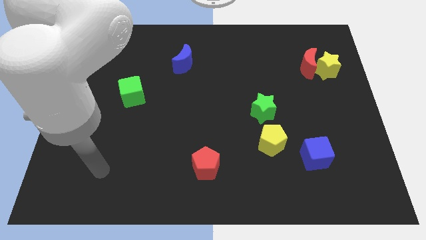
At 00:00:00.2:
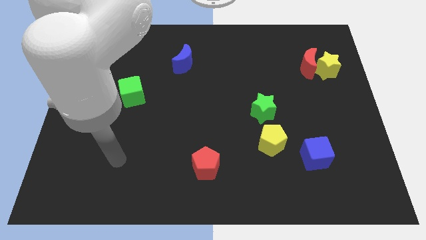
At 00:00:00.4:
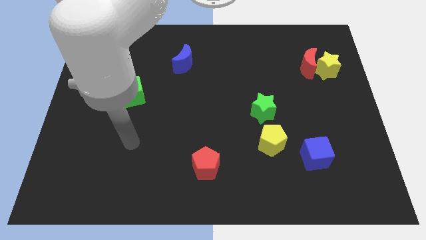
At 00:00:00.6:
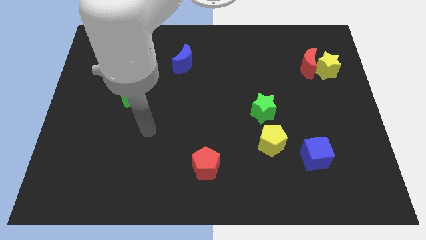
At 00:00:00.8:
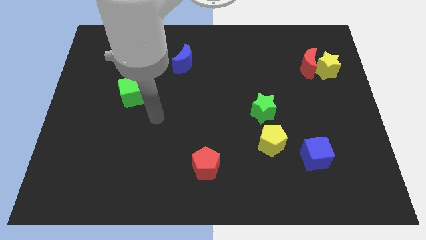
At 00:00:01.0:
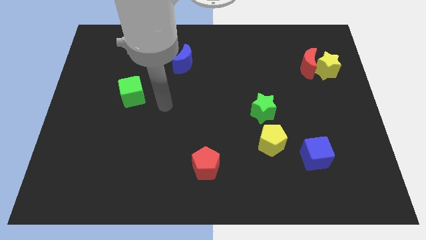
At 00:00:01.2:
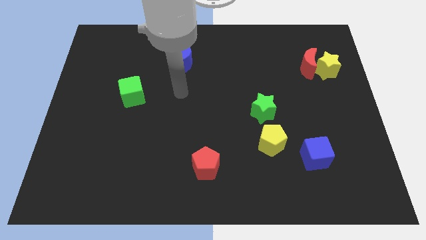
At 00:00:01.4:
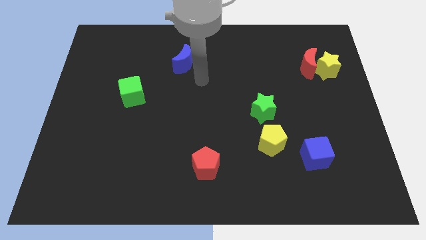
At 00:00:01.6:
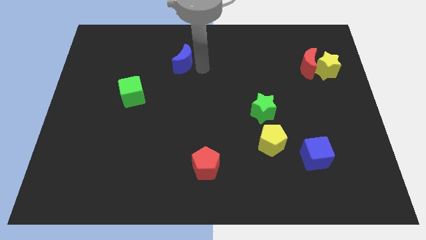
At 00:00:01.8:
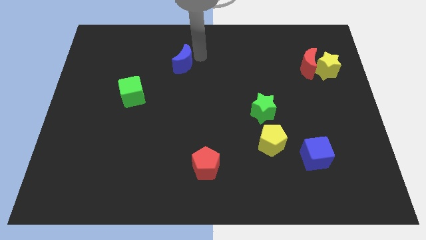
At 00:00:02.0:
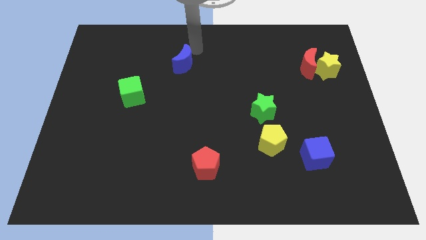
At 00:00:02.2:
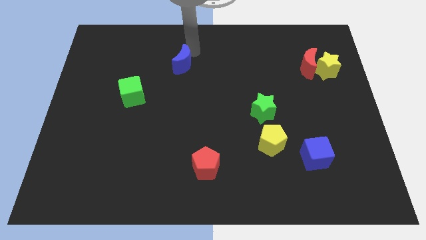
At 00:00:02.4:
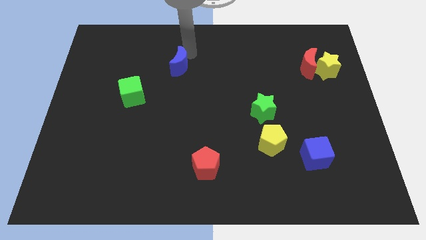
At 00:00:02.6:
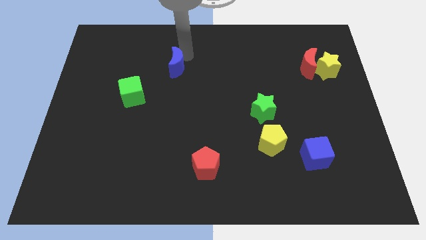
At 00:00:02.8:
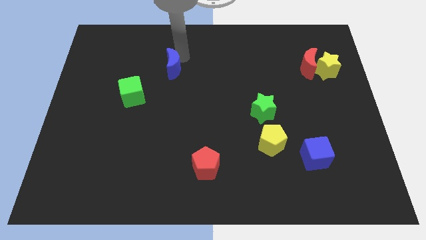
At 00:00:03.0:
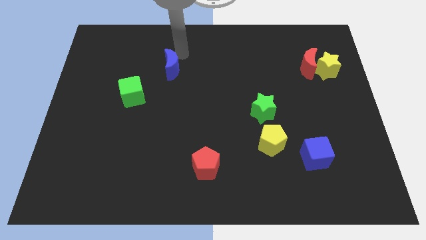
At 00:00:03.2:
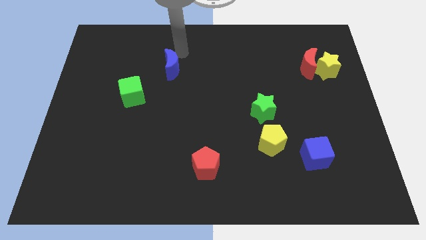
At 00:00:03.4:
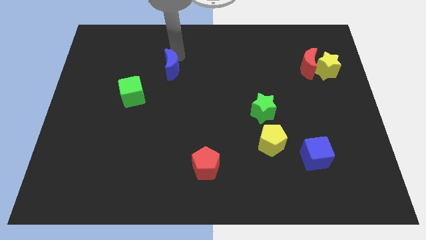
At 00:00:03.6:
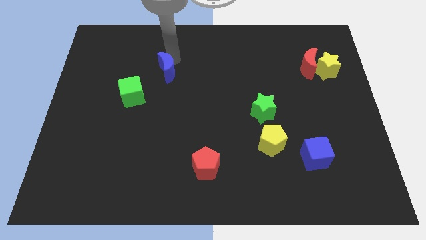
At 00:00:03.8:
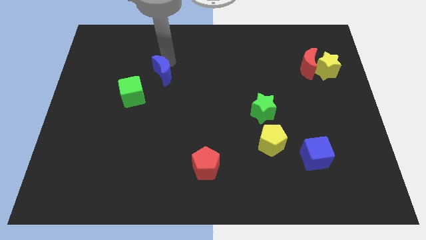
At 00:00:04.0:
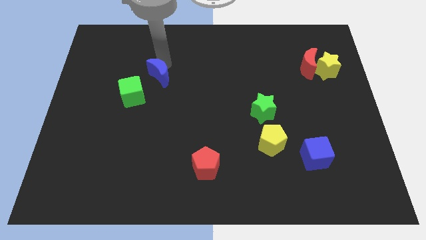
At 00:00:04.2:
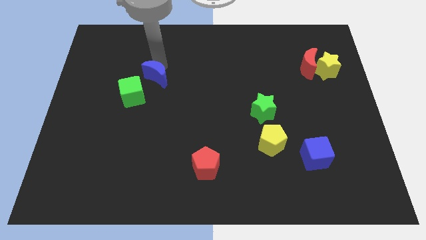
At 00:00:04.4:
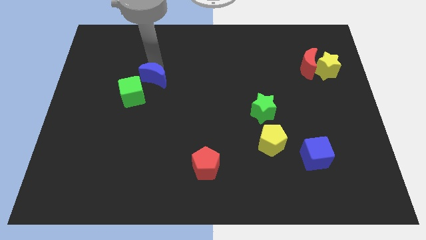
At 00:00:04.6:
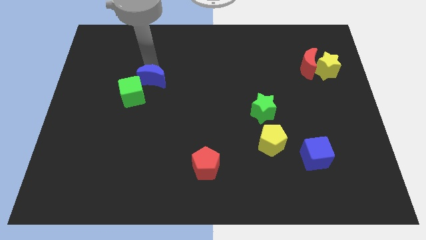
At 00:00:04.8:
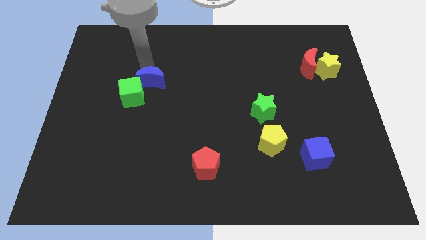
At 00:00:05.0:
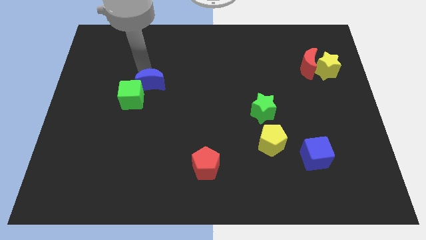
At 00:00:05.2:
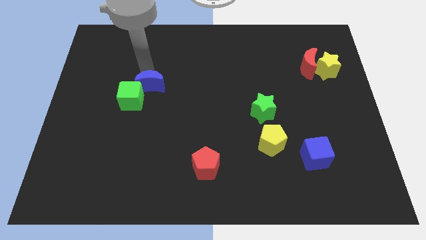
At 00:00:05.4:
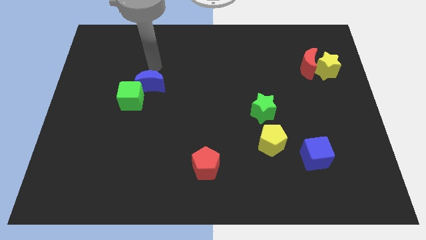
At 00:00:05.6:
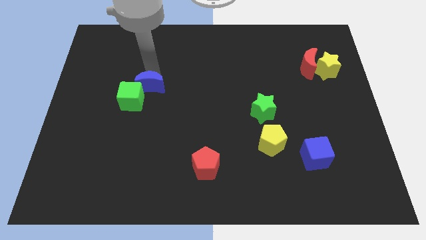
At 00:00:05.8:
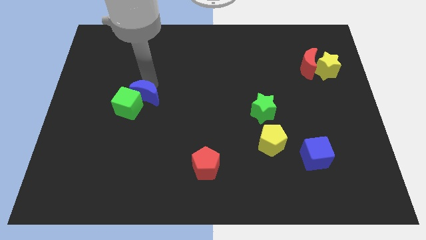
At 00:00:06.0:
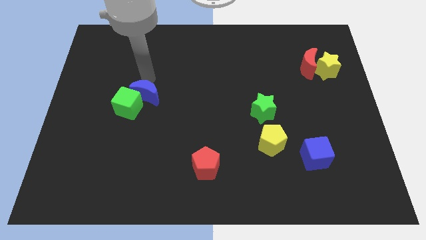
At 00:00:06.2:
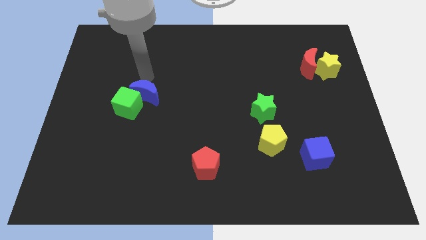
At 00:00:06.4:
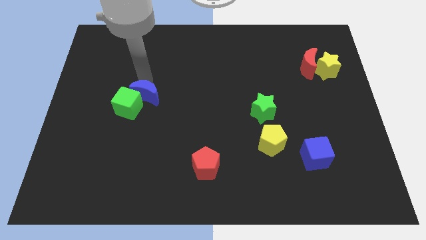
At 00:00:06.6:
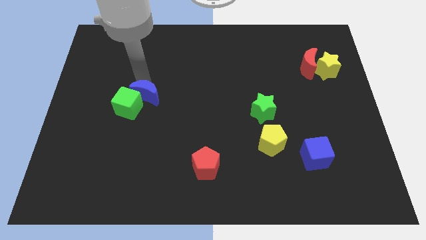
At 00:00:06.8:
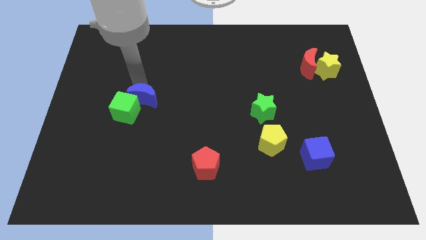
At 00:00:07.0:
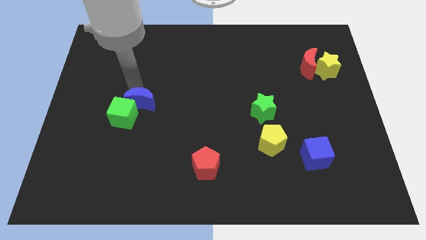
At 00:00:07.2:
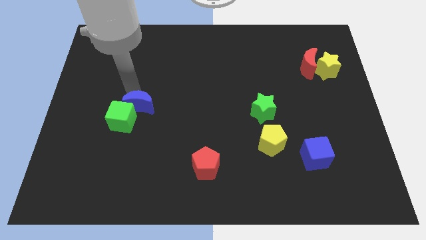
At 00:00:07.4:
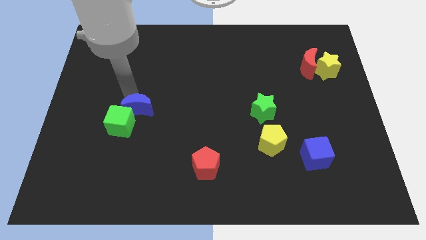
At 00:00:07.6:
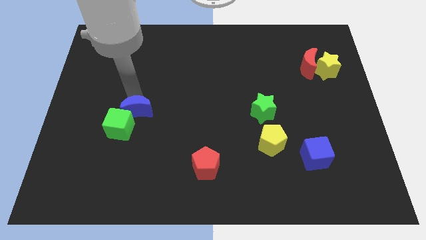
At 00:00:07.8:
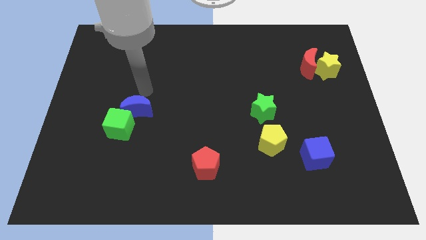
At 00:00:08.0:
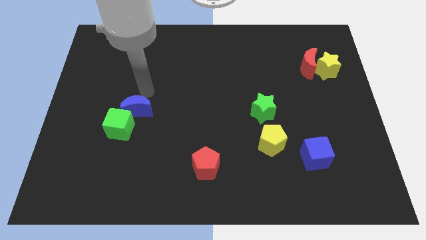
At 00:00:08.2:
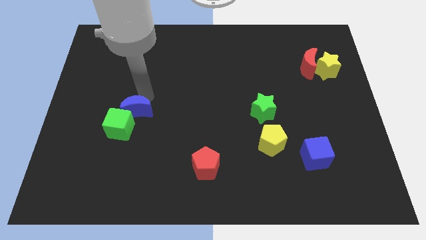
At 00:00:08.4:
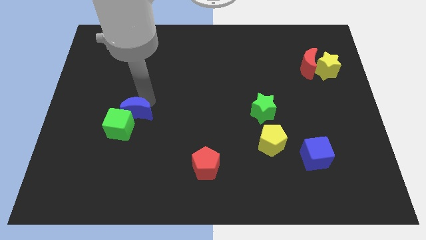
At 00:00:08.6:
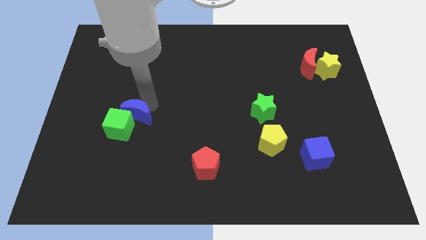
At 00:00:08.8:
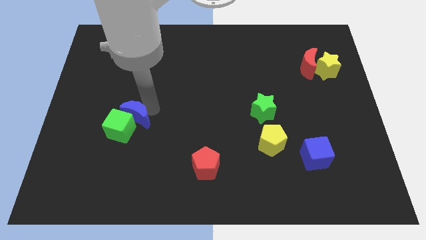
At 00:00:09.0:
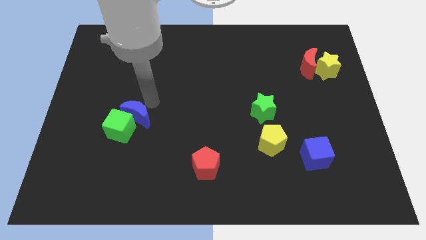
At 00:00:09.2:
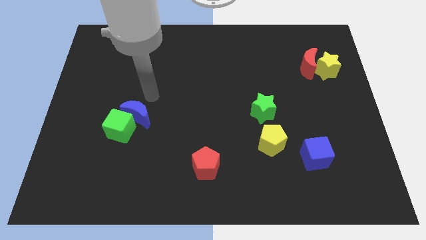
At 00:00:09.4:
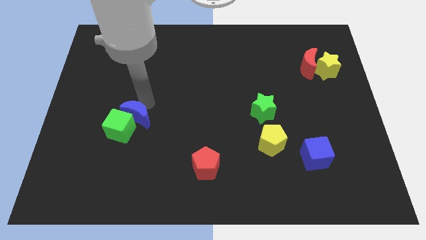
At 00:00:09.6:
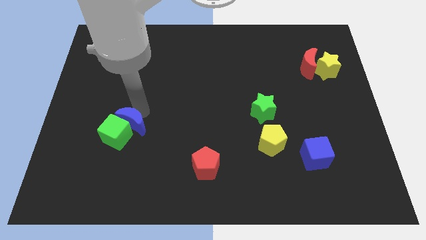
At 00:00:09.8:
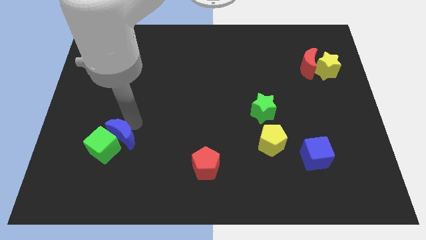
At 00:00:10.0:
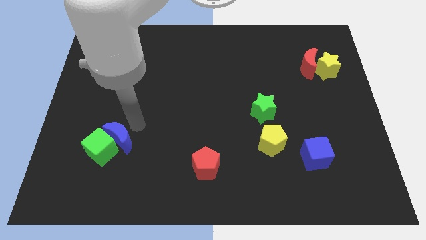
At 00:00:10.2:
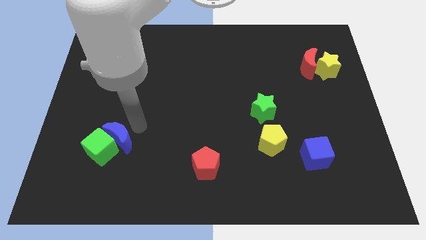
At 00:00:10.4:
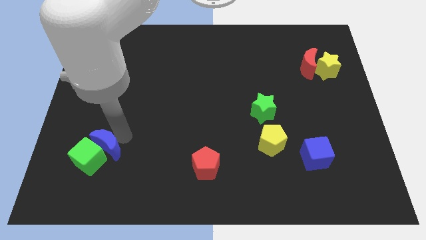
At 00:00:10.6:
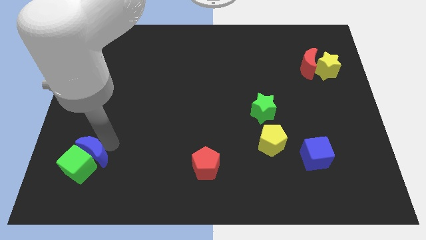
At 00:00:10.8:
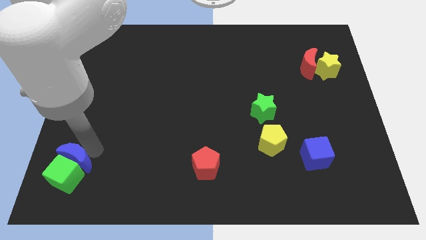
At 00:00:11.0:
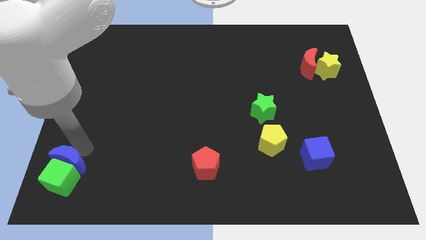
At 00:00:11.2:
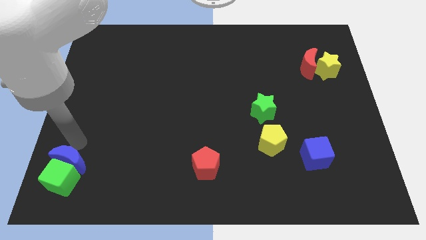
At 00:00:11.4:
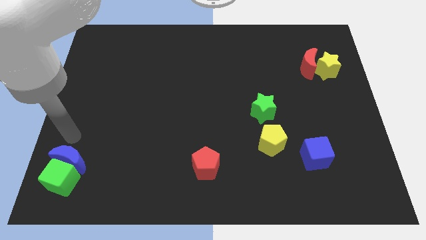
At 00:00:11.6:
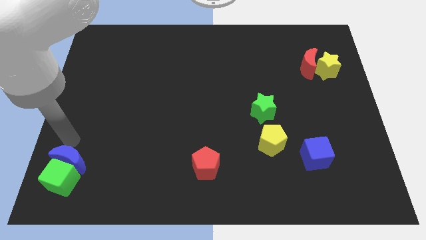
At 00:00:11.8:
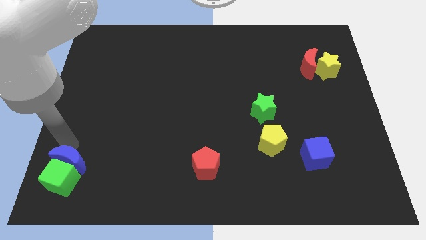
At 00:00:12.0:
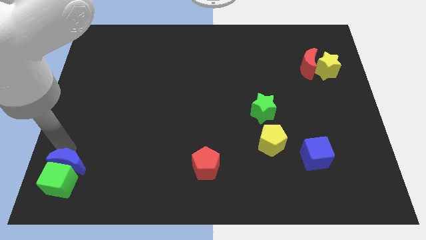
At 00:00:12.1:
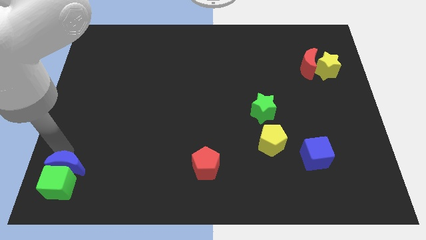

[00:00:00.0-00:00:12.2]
put the blue moon to the bottom left of the board

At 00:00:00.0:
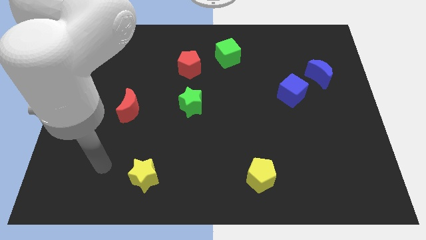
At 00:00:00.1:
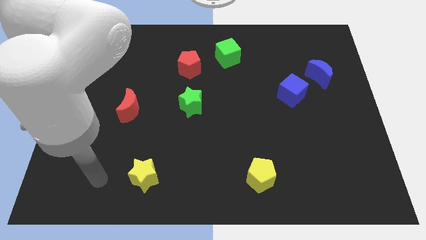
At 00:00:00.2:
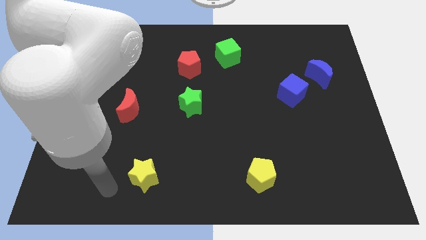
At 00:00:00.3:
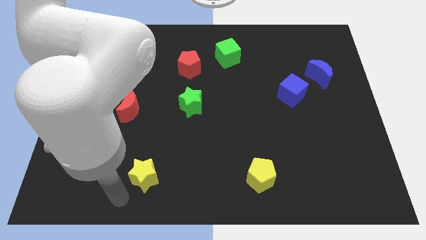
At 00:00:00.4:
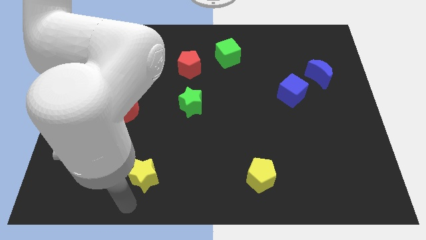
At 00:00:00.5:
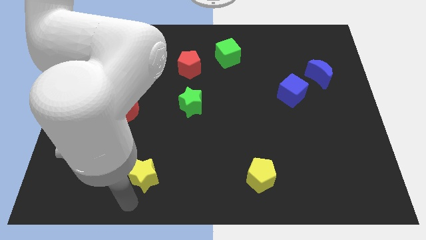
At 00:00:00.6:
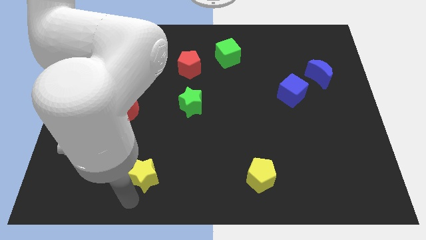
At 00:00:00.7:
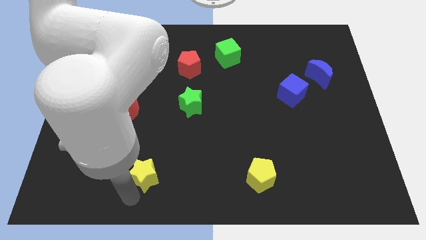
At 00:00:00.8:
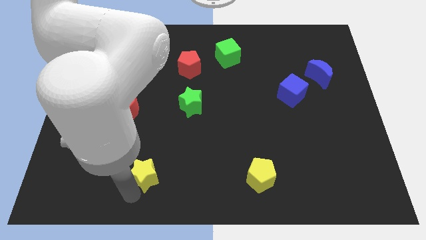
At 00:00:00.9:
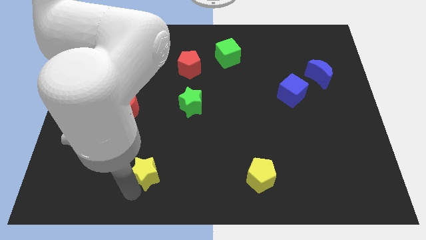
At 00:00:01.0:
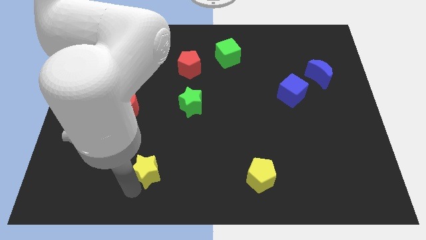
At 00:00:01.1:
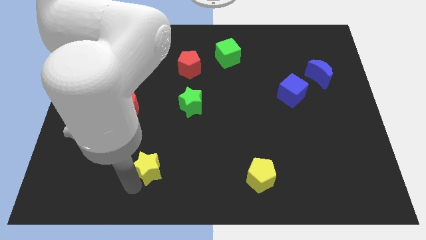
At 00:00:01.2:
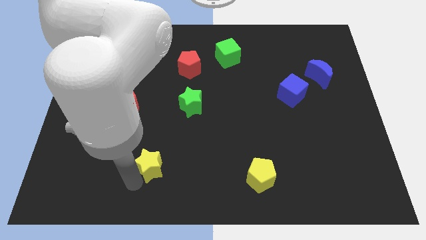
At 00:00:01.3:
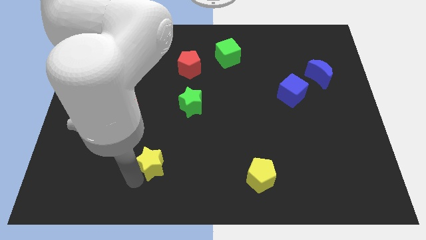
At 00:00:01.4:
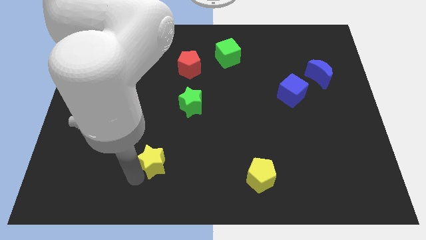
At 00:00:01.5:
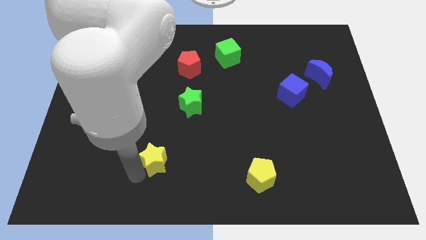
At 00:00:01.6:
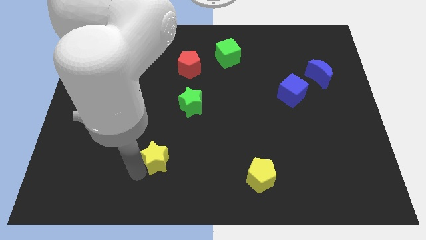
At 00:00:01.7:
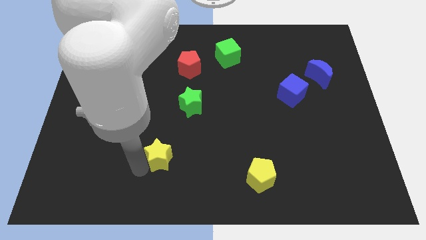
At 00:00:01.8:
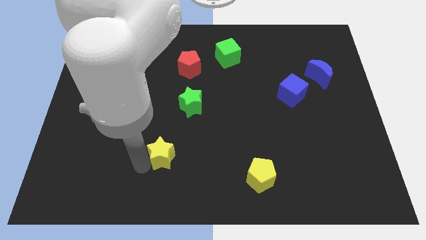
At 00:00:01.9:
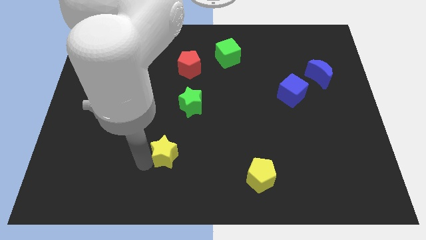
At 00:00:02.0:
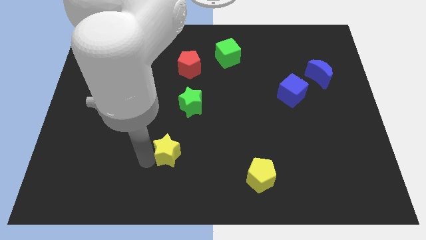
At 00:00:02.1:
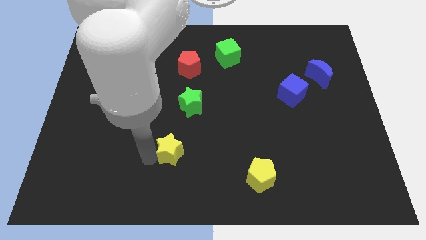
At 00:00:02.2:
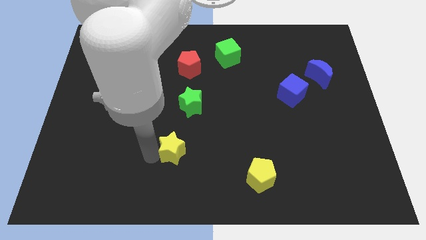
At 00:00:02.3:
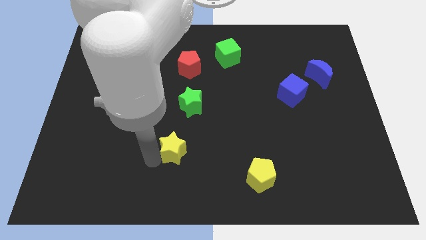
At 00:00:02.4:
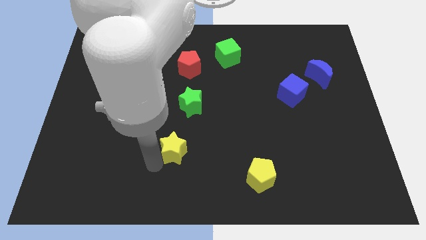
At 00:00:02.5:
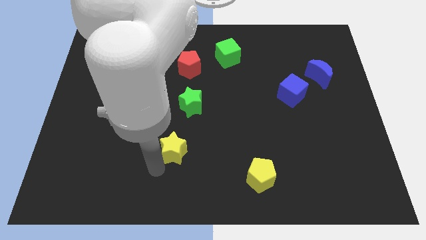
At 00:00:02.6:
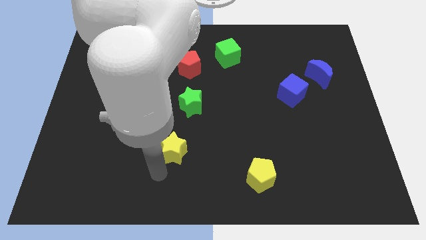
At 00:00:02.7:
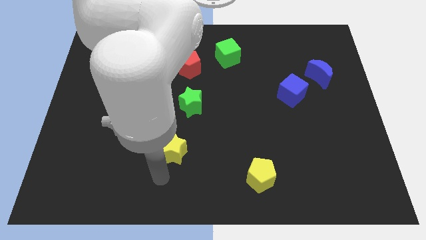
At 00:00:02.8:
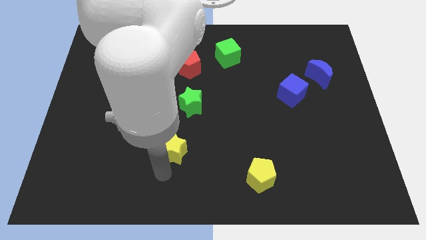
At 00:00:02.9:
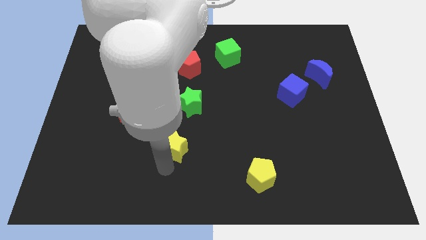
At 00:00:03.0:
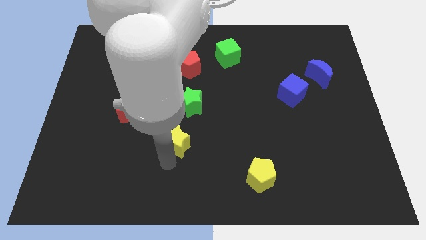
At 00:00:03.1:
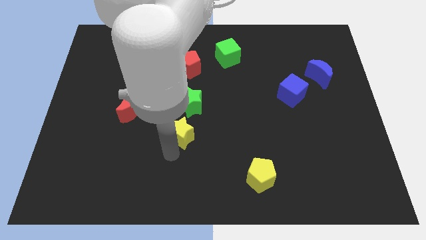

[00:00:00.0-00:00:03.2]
put the yellow star to the center of the board
